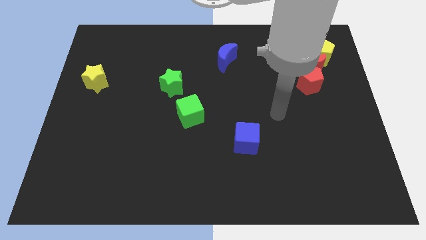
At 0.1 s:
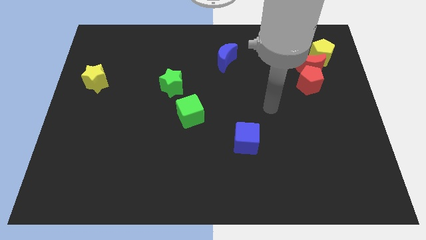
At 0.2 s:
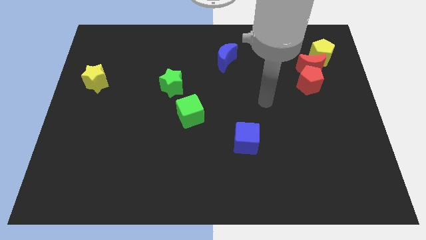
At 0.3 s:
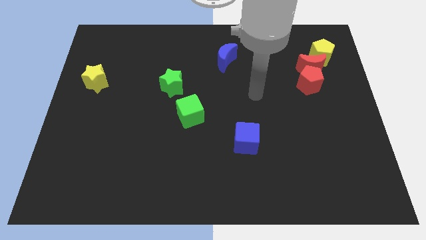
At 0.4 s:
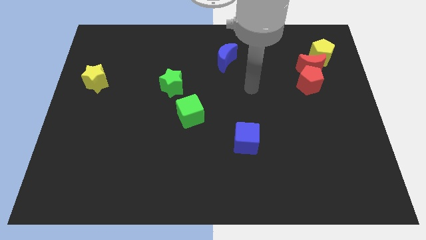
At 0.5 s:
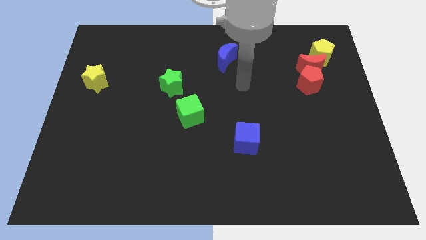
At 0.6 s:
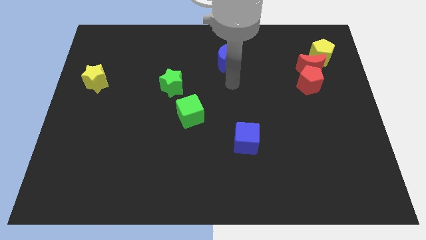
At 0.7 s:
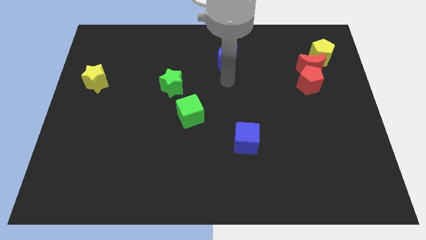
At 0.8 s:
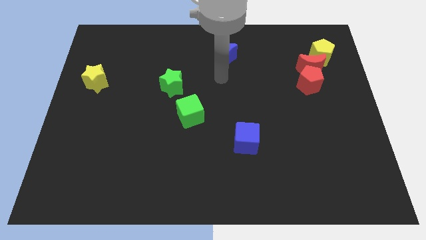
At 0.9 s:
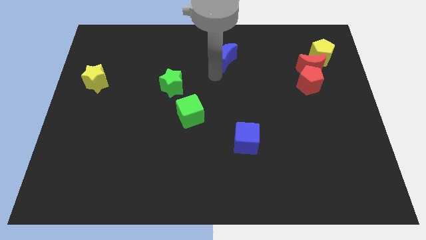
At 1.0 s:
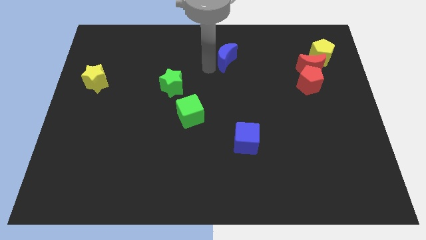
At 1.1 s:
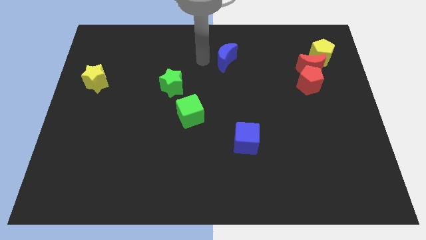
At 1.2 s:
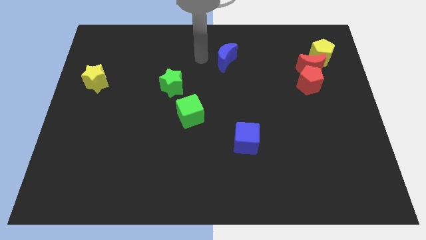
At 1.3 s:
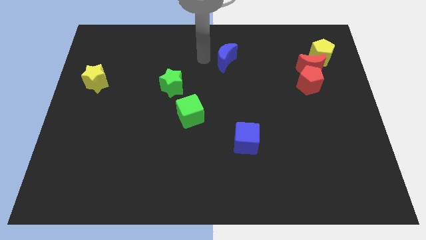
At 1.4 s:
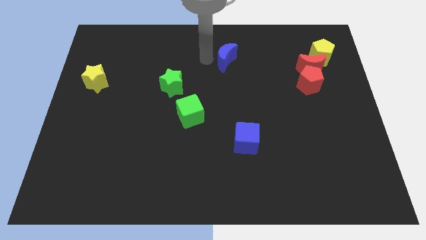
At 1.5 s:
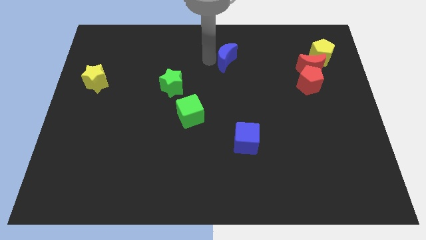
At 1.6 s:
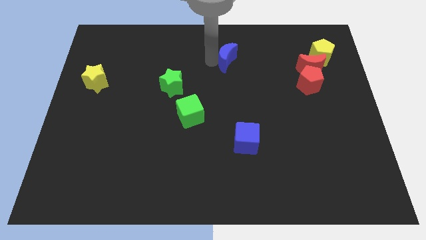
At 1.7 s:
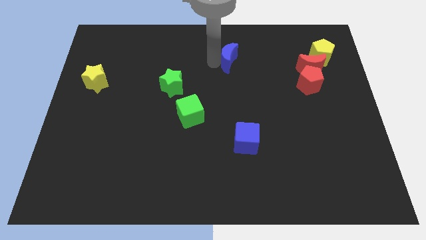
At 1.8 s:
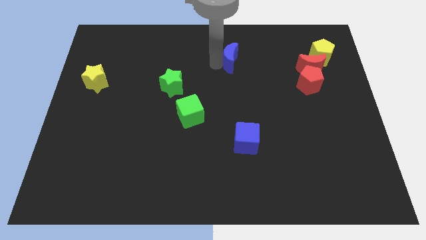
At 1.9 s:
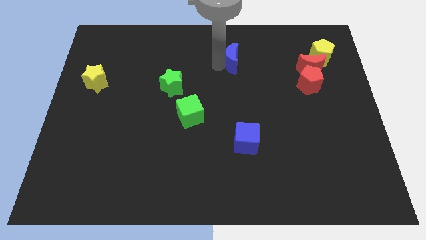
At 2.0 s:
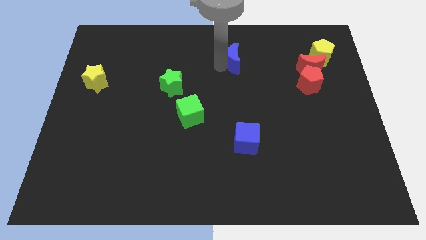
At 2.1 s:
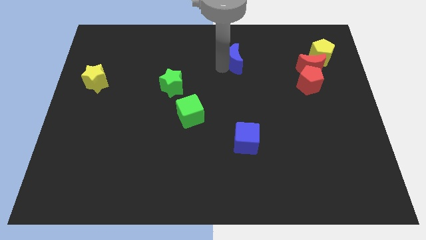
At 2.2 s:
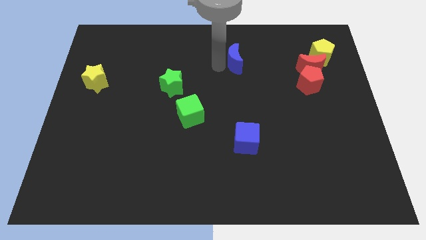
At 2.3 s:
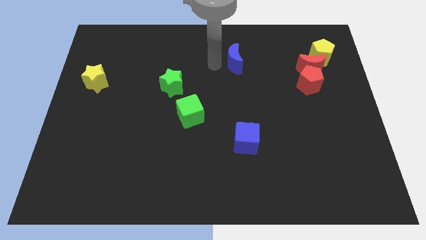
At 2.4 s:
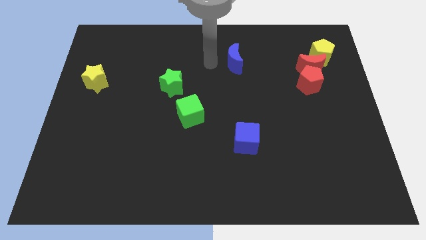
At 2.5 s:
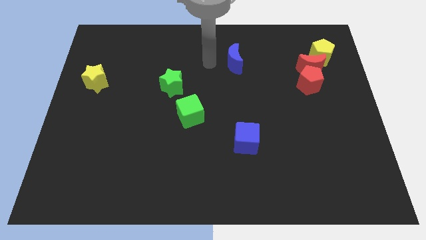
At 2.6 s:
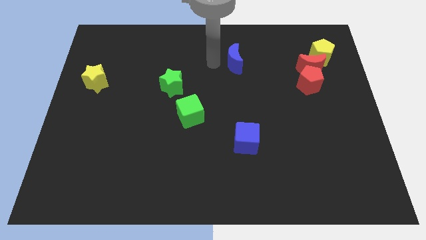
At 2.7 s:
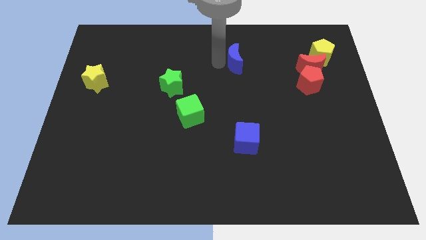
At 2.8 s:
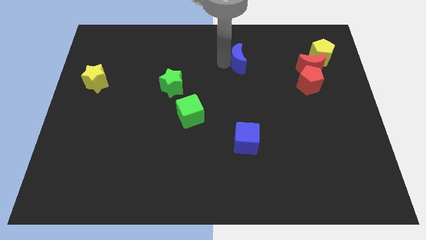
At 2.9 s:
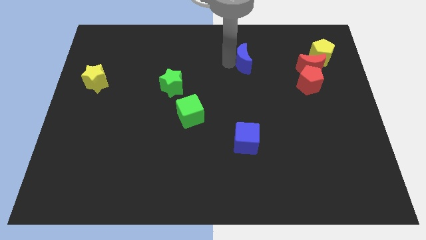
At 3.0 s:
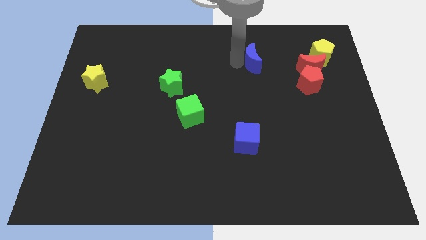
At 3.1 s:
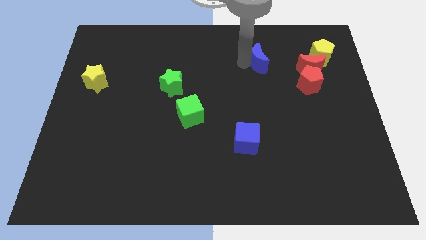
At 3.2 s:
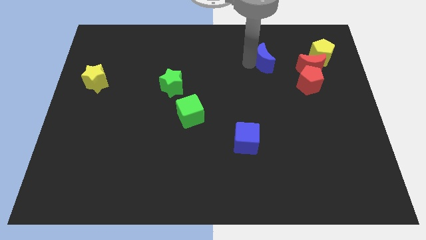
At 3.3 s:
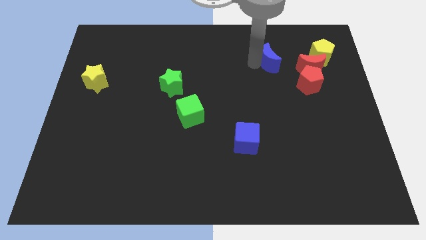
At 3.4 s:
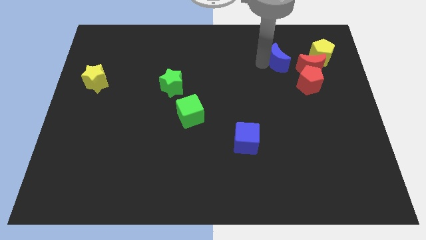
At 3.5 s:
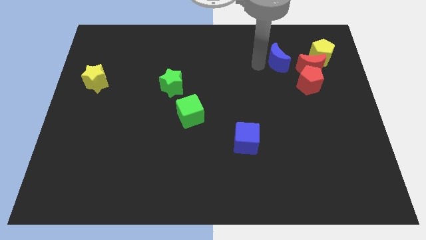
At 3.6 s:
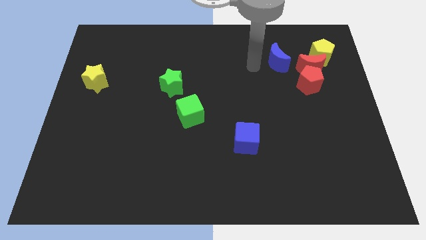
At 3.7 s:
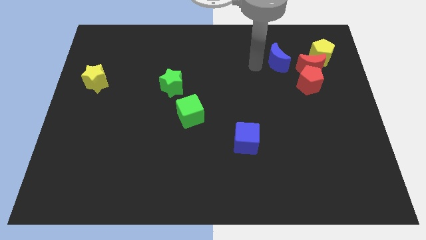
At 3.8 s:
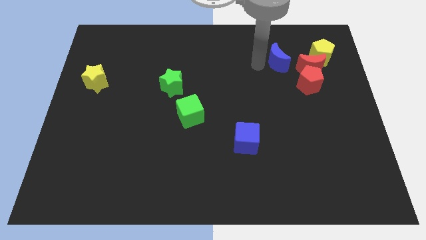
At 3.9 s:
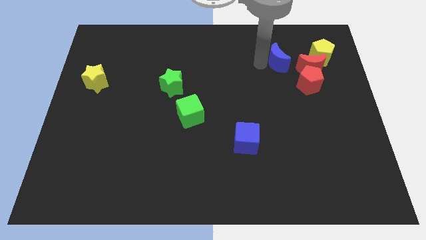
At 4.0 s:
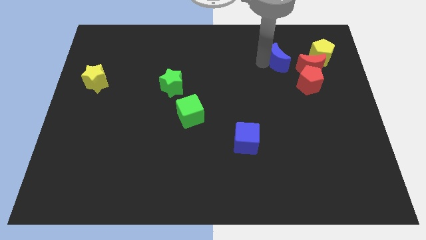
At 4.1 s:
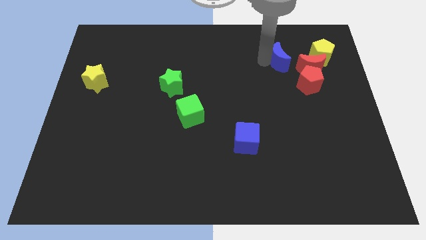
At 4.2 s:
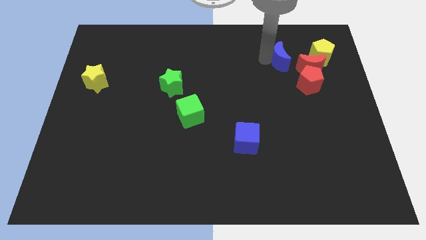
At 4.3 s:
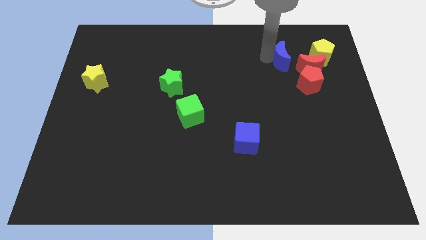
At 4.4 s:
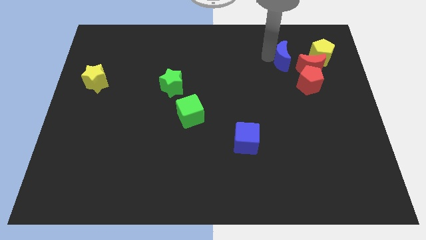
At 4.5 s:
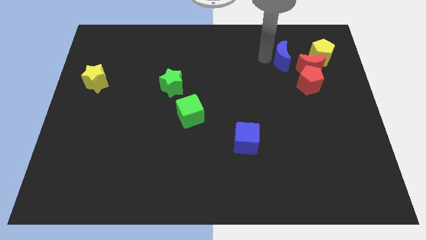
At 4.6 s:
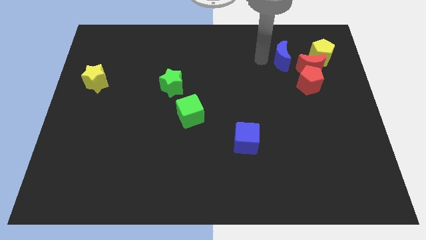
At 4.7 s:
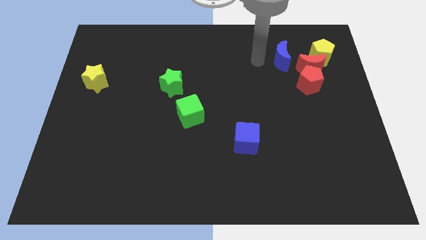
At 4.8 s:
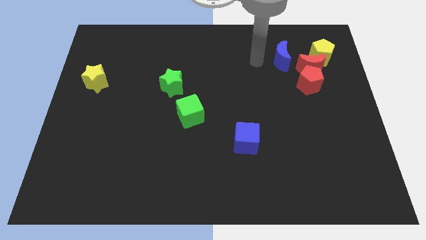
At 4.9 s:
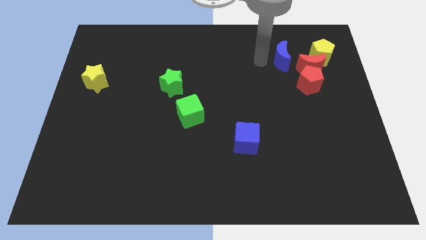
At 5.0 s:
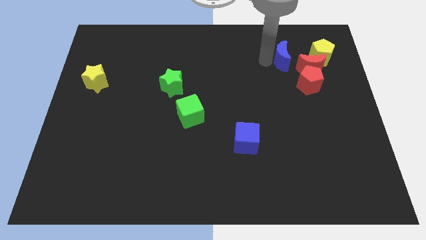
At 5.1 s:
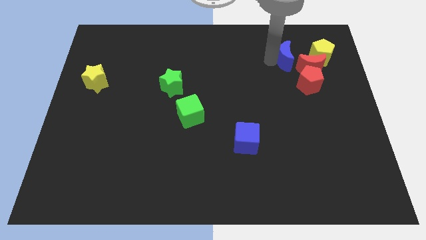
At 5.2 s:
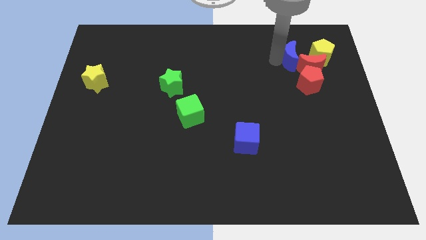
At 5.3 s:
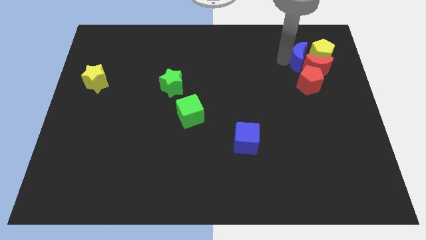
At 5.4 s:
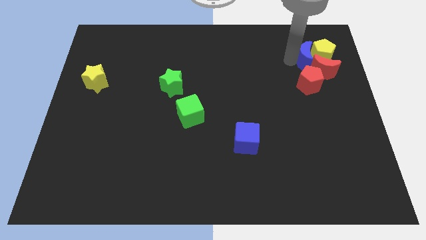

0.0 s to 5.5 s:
slide the blue moon close to the yellow pentagon

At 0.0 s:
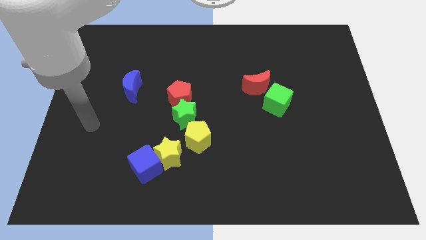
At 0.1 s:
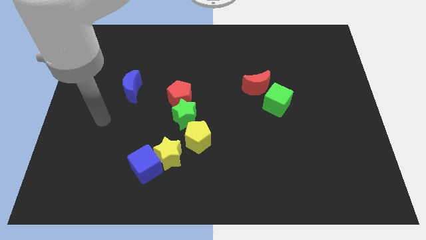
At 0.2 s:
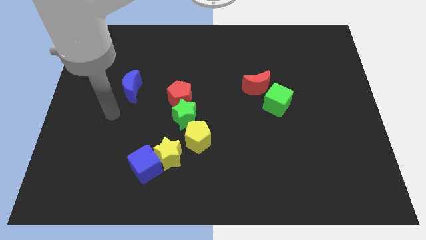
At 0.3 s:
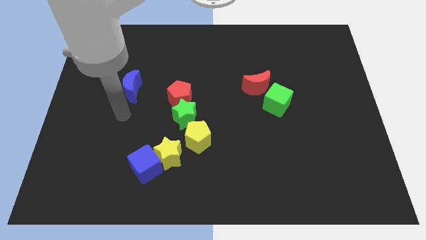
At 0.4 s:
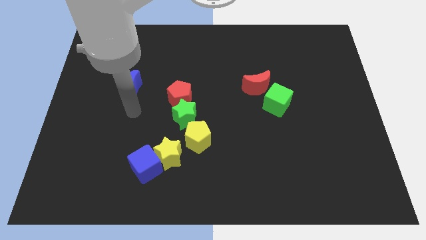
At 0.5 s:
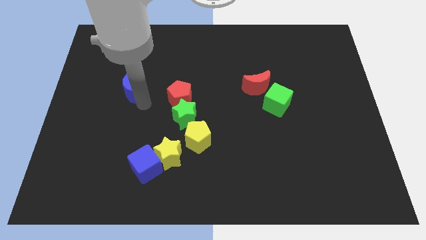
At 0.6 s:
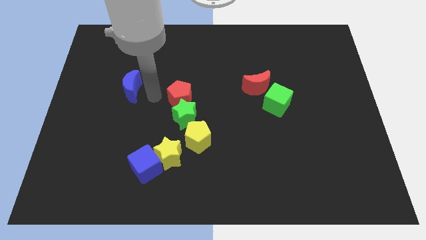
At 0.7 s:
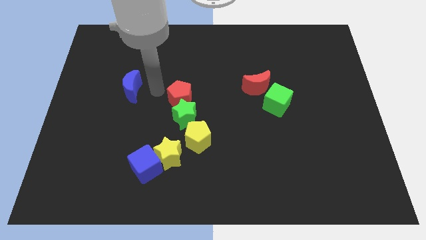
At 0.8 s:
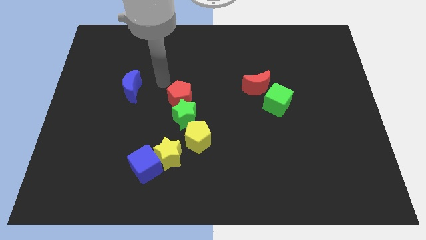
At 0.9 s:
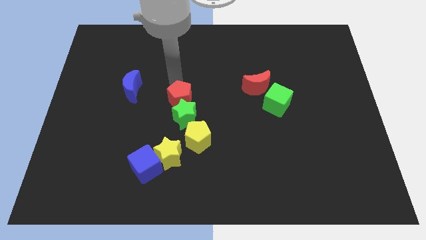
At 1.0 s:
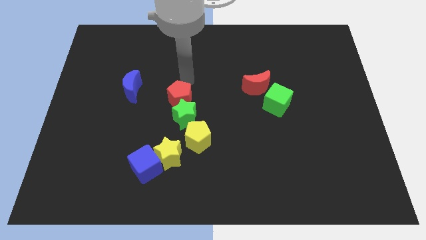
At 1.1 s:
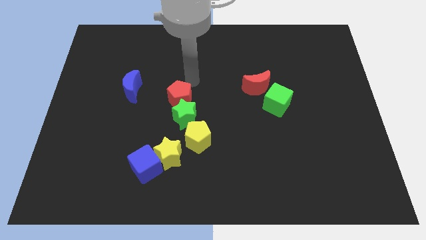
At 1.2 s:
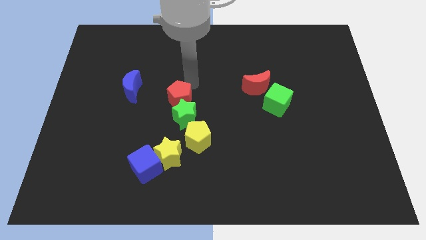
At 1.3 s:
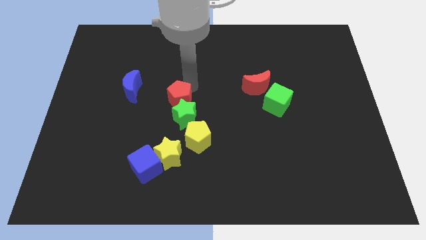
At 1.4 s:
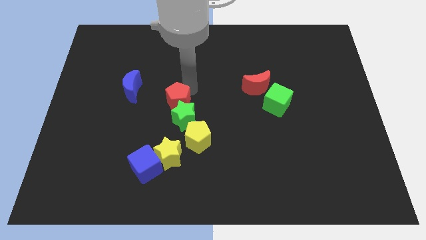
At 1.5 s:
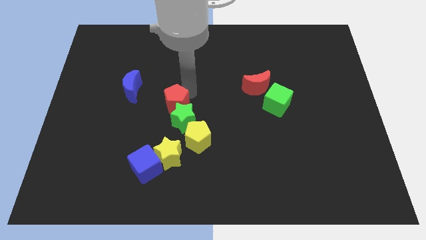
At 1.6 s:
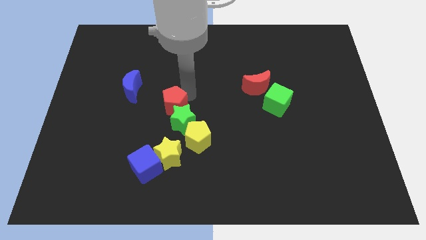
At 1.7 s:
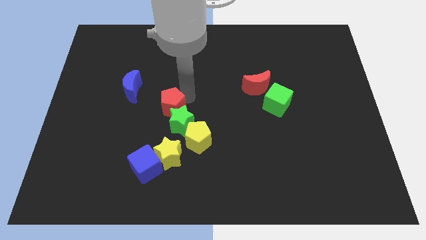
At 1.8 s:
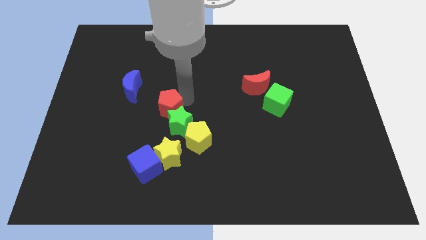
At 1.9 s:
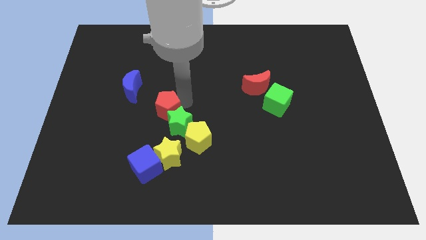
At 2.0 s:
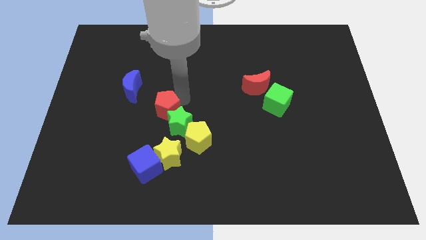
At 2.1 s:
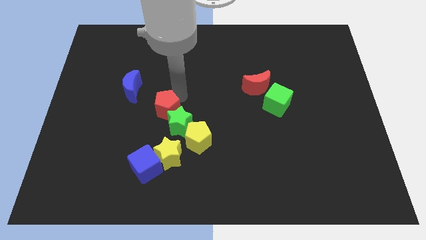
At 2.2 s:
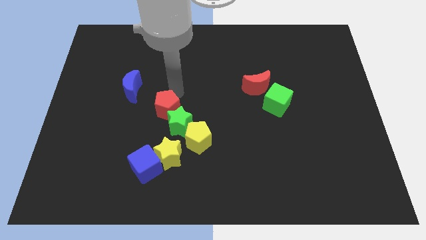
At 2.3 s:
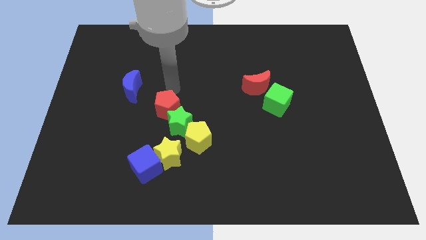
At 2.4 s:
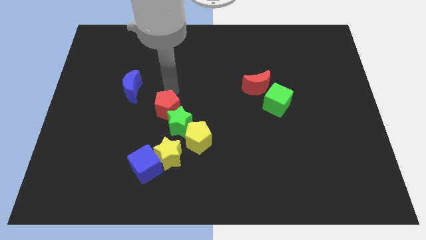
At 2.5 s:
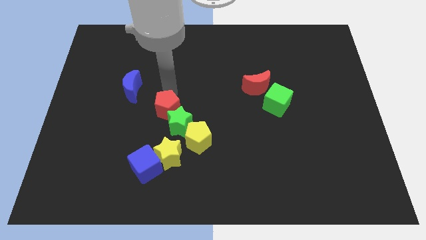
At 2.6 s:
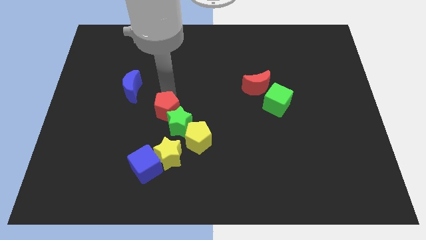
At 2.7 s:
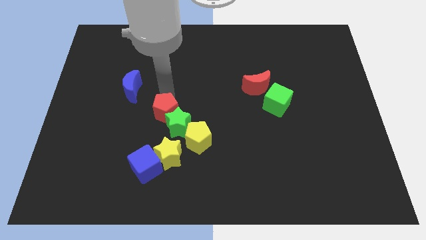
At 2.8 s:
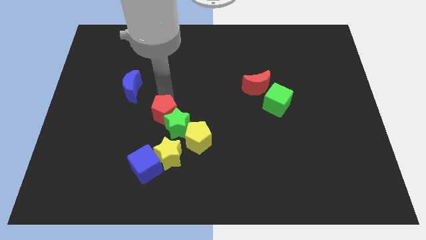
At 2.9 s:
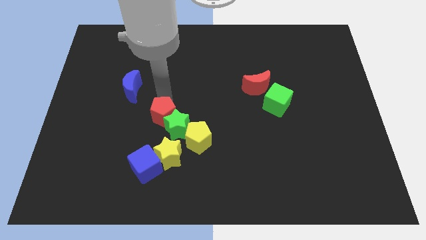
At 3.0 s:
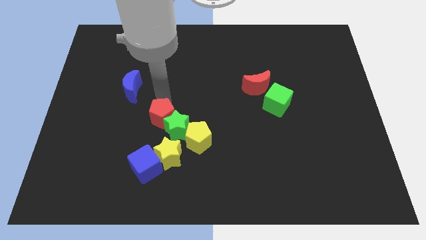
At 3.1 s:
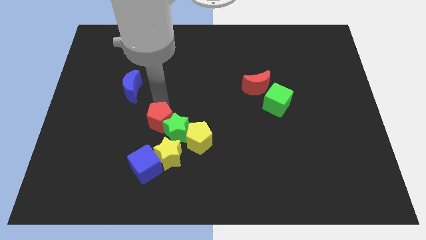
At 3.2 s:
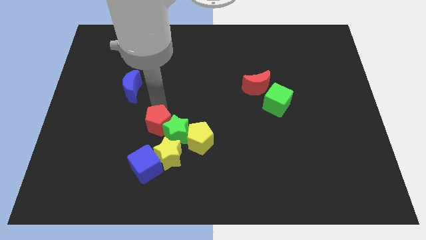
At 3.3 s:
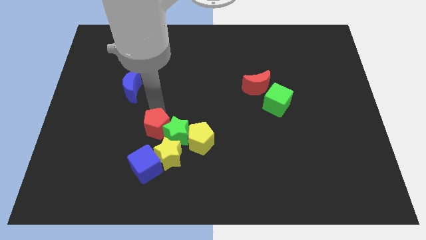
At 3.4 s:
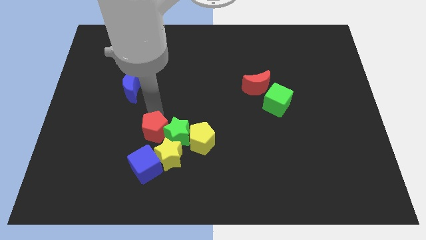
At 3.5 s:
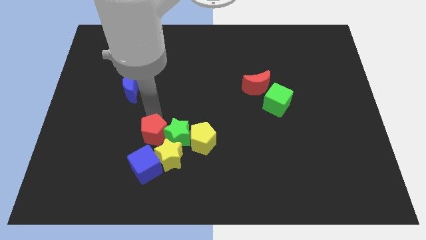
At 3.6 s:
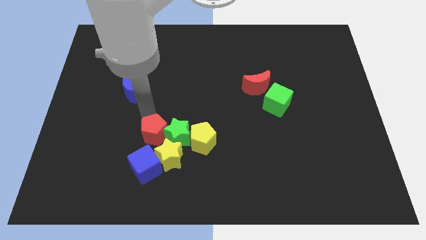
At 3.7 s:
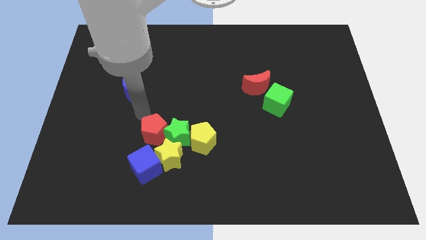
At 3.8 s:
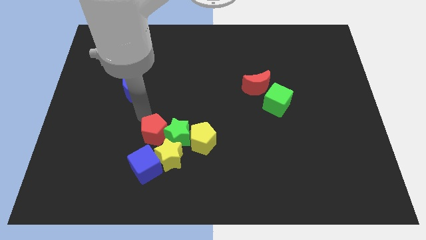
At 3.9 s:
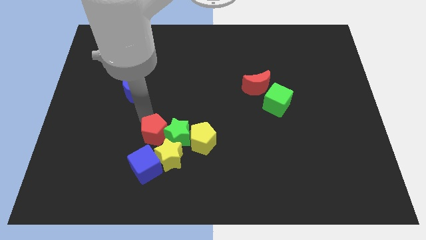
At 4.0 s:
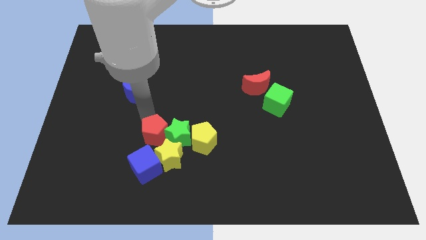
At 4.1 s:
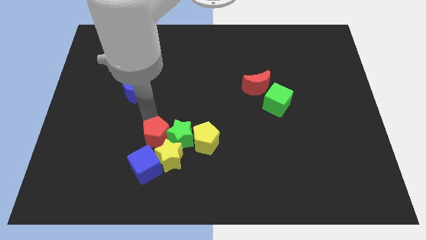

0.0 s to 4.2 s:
slide the red pentagon to the yellow star
